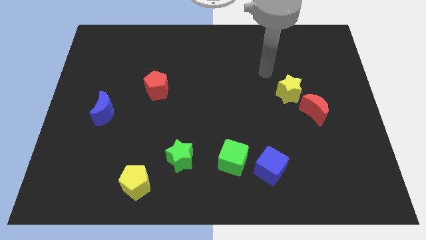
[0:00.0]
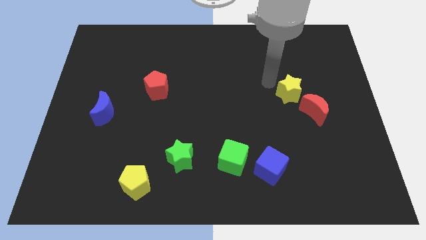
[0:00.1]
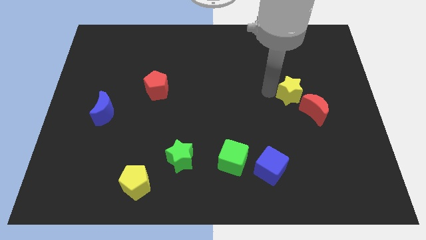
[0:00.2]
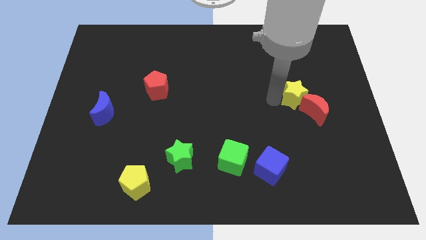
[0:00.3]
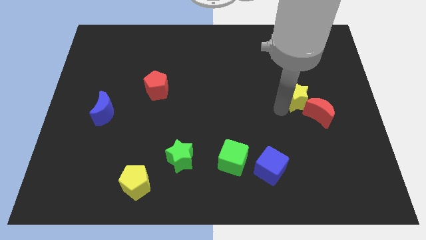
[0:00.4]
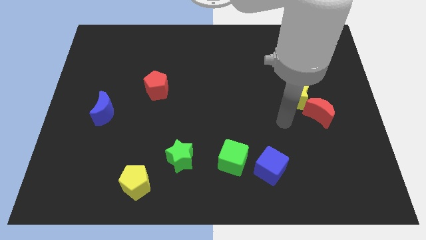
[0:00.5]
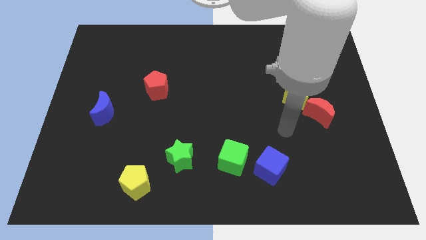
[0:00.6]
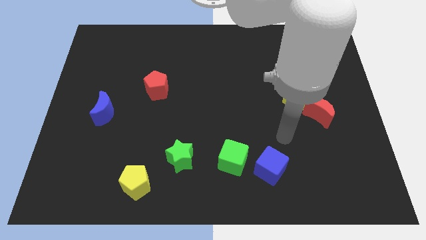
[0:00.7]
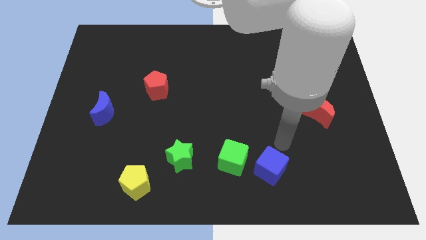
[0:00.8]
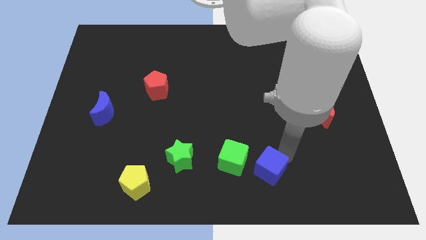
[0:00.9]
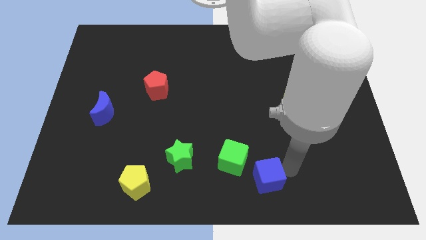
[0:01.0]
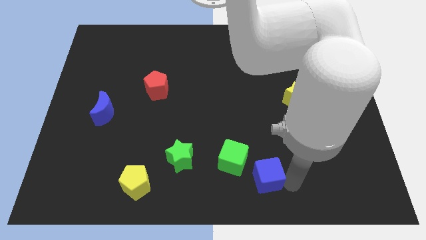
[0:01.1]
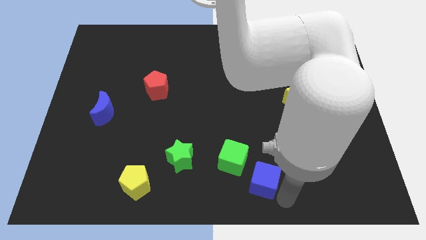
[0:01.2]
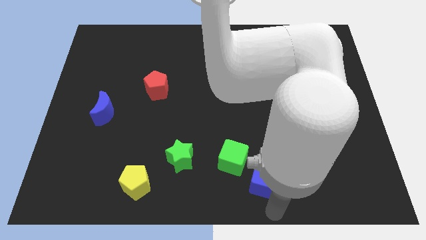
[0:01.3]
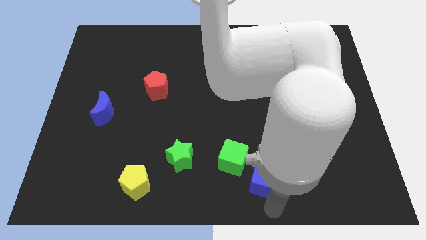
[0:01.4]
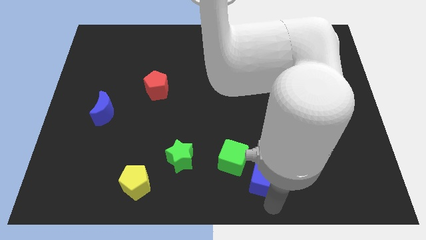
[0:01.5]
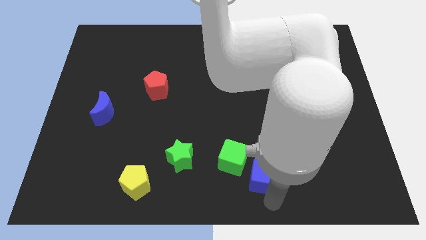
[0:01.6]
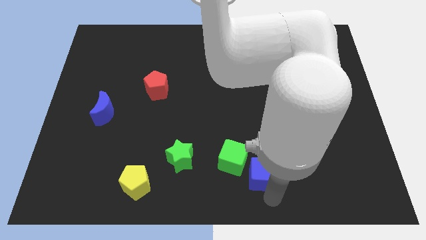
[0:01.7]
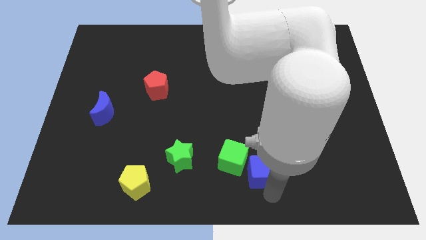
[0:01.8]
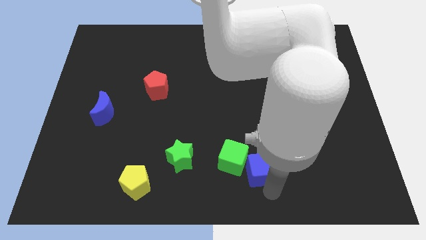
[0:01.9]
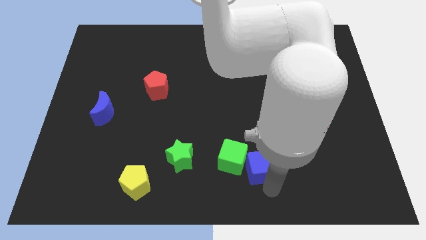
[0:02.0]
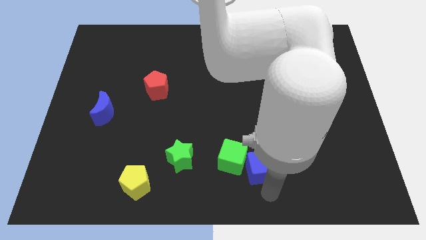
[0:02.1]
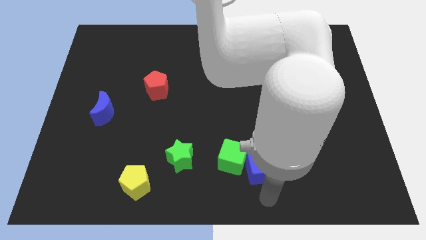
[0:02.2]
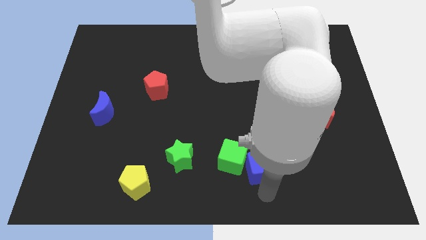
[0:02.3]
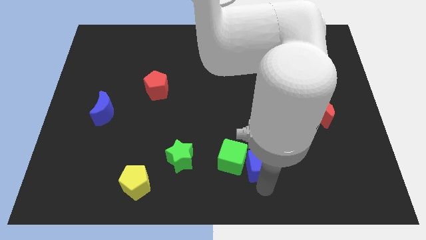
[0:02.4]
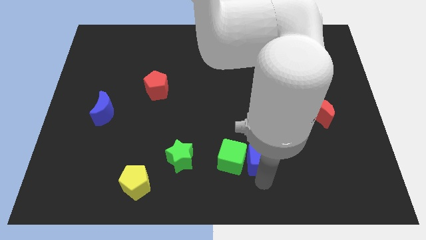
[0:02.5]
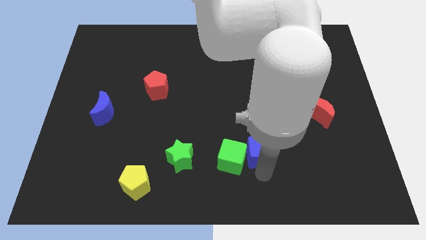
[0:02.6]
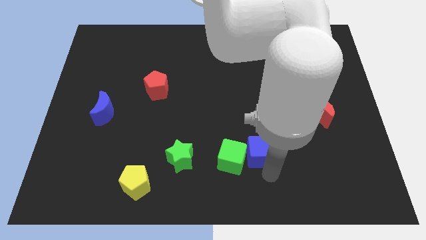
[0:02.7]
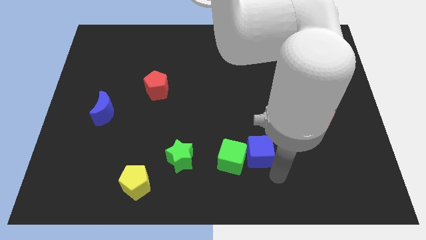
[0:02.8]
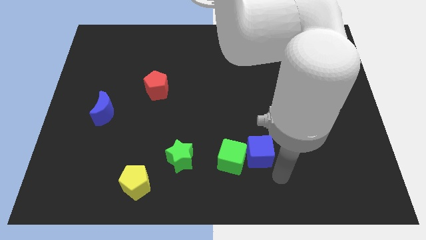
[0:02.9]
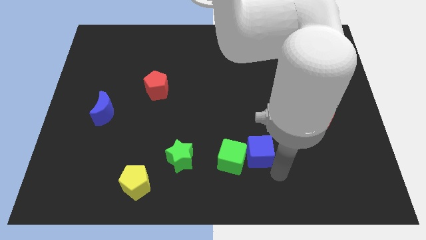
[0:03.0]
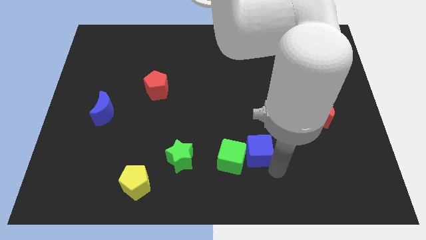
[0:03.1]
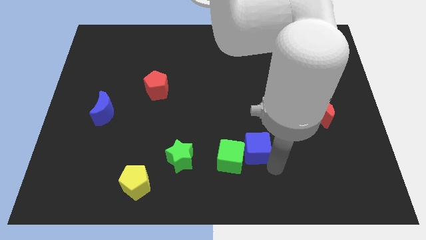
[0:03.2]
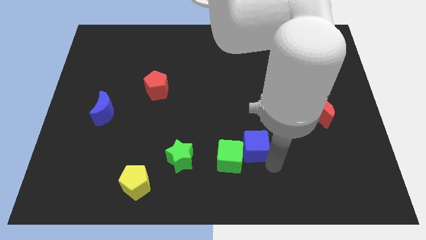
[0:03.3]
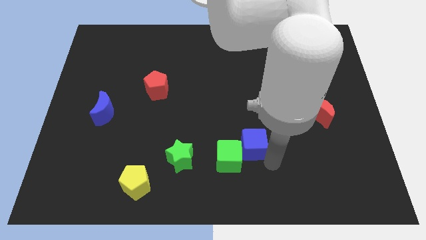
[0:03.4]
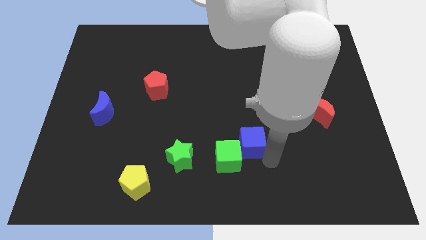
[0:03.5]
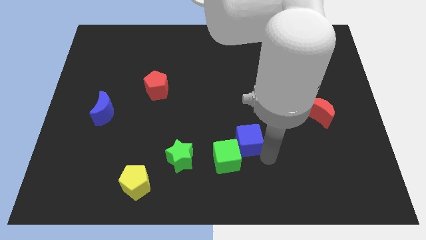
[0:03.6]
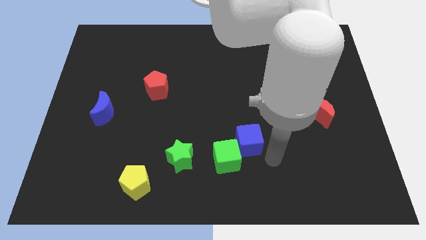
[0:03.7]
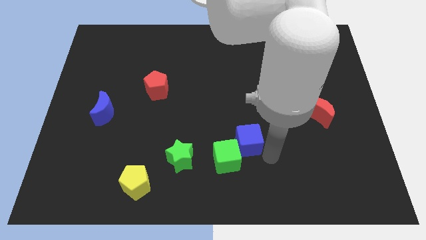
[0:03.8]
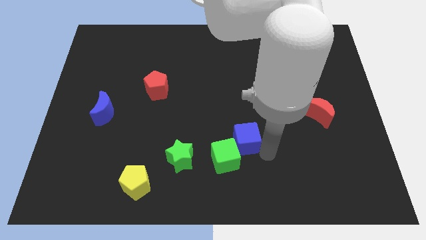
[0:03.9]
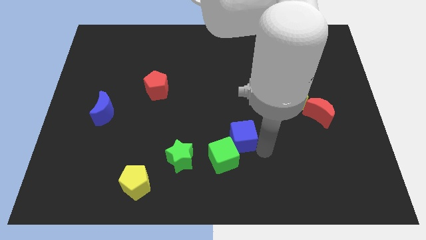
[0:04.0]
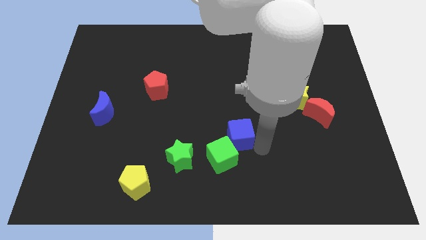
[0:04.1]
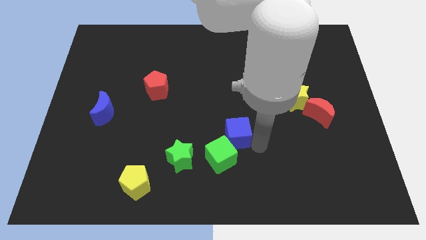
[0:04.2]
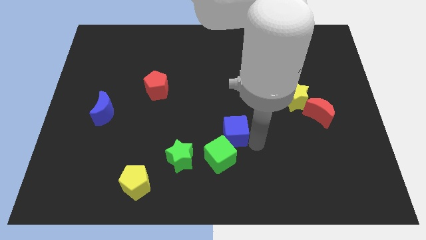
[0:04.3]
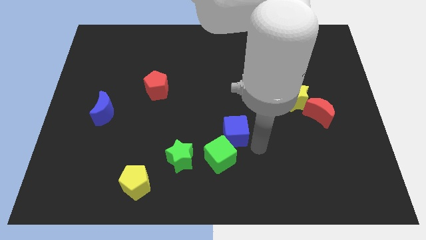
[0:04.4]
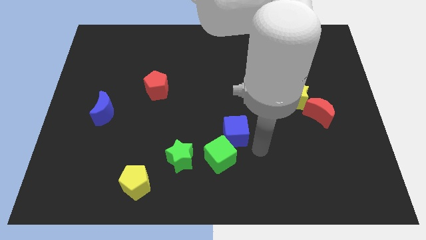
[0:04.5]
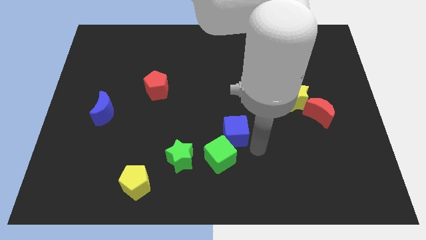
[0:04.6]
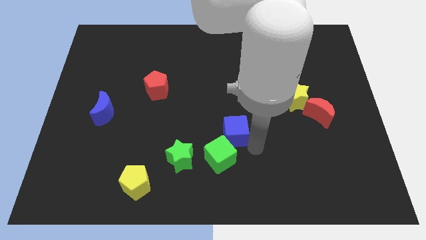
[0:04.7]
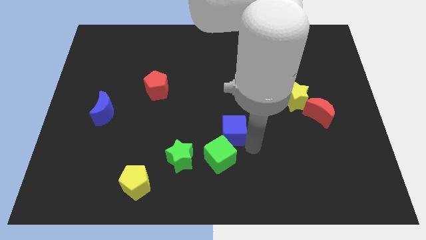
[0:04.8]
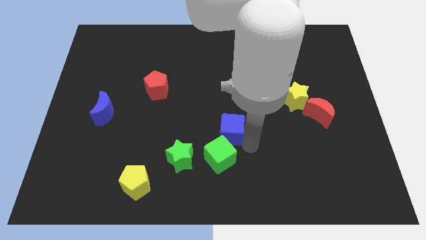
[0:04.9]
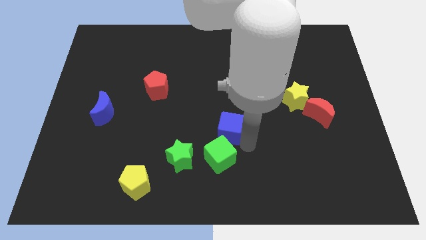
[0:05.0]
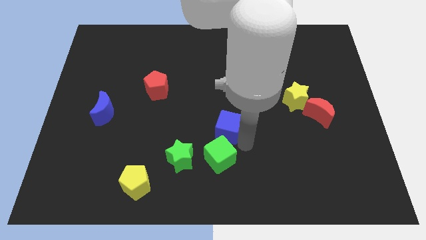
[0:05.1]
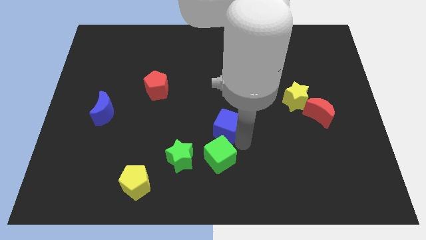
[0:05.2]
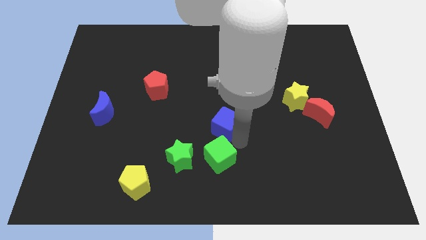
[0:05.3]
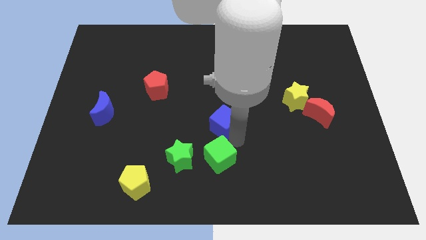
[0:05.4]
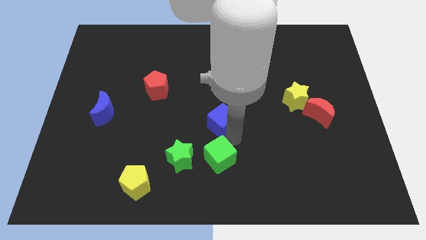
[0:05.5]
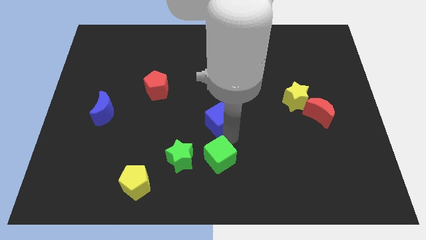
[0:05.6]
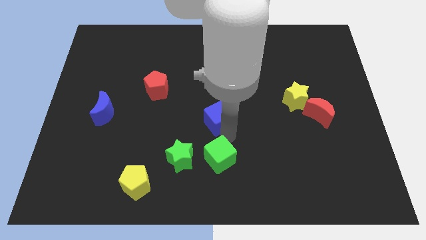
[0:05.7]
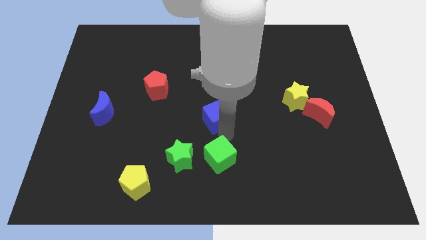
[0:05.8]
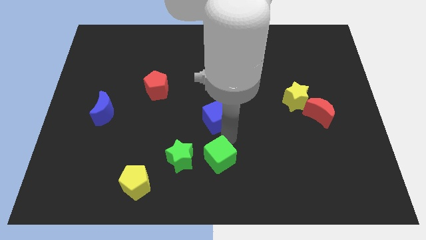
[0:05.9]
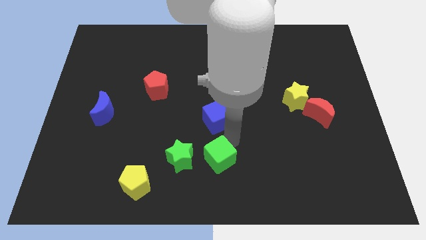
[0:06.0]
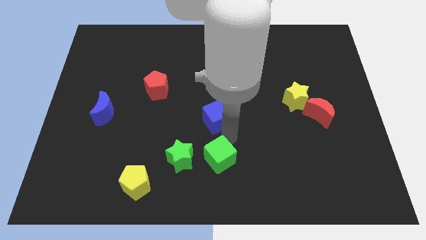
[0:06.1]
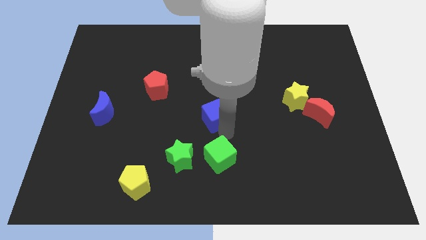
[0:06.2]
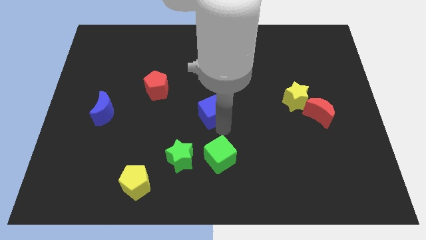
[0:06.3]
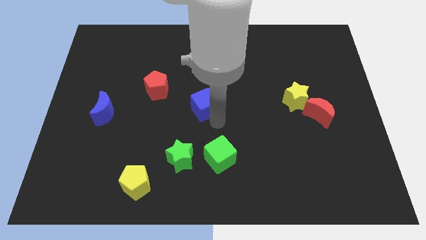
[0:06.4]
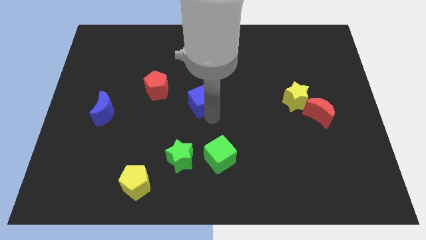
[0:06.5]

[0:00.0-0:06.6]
slide the blue cube to the right of the red pentagon
